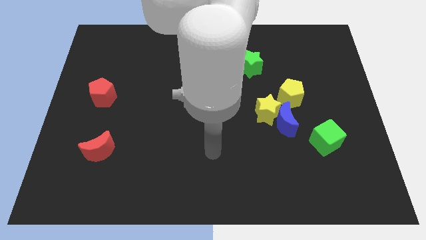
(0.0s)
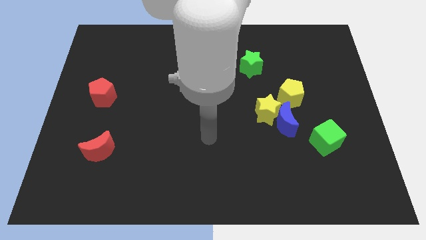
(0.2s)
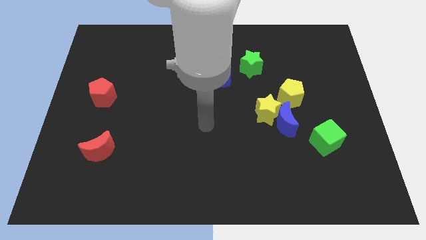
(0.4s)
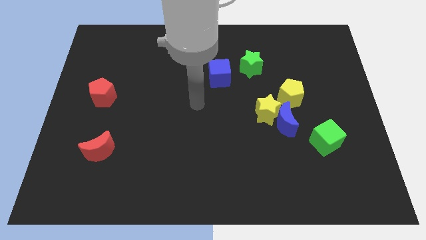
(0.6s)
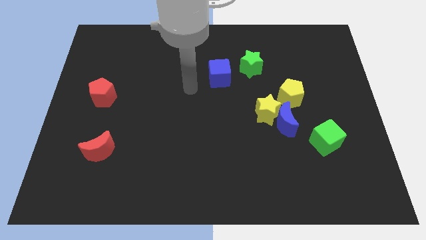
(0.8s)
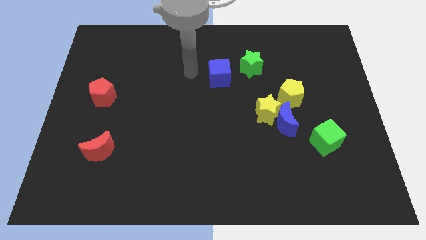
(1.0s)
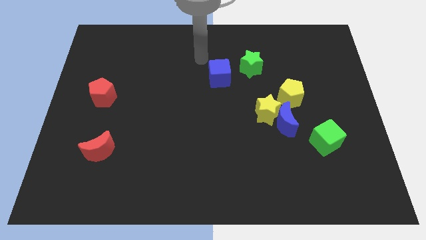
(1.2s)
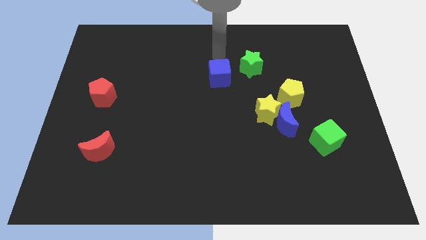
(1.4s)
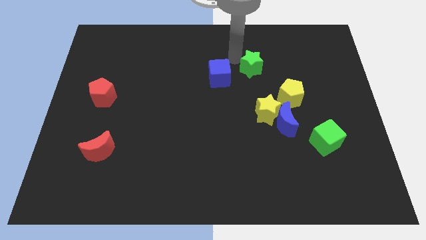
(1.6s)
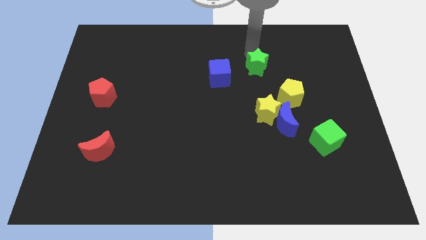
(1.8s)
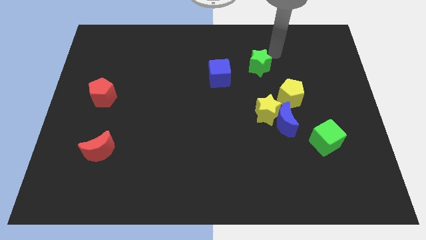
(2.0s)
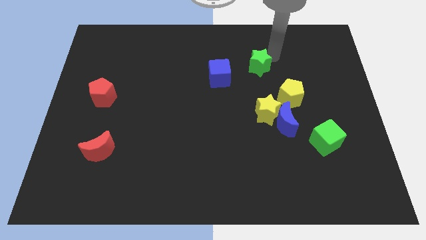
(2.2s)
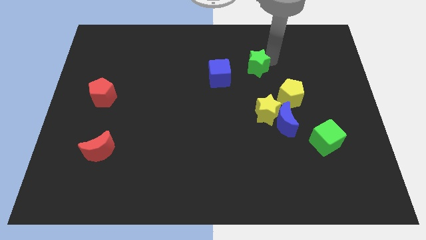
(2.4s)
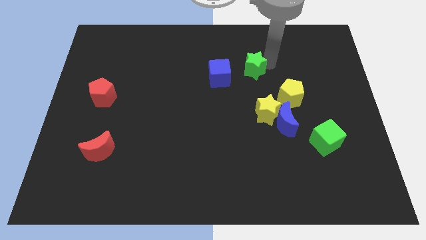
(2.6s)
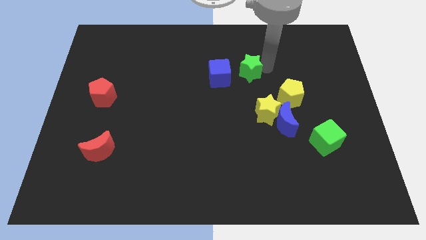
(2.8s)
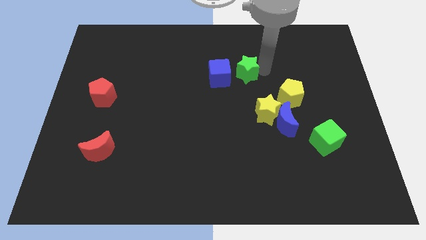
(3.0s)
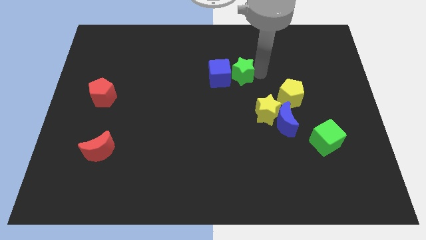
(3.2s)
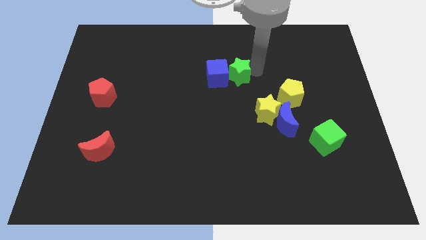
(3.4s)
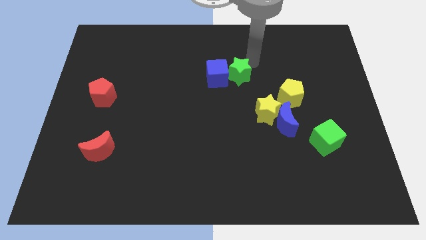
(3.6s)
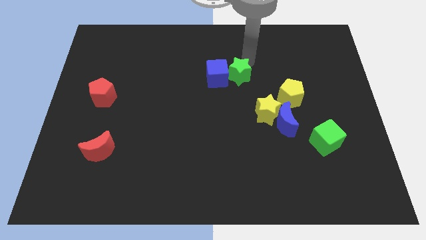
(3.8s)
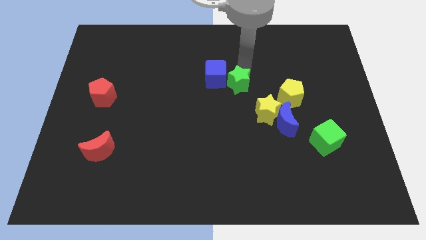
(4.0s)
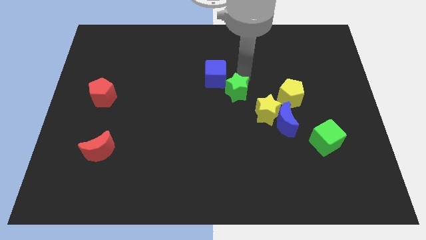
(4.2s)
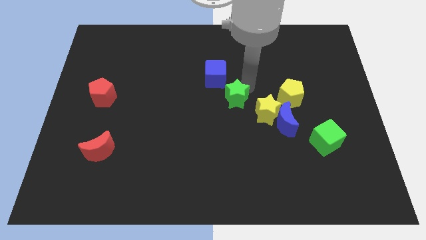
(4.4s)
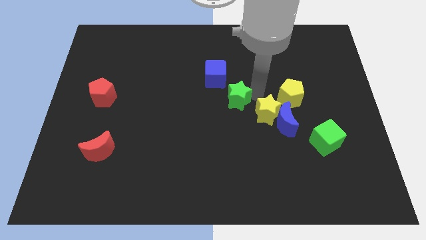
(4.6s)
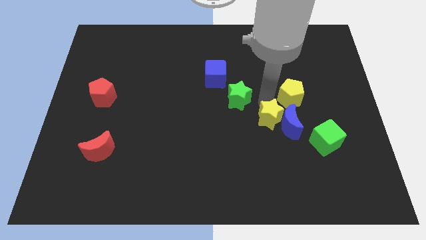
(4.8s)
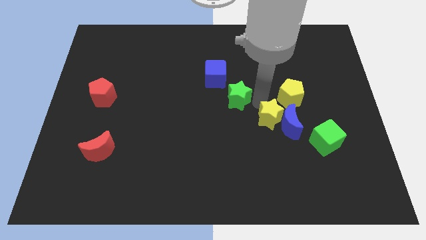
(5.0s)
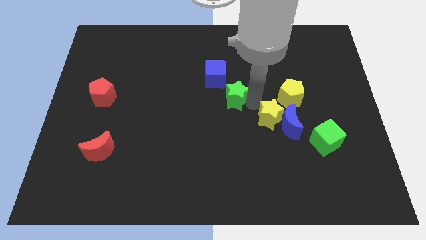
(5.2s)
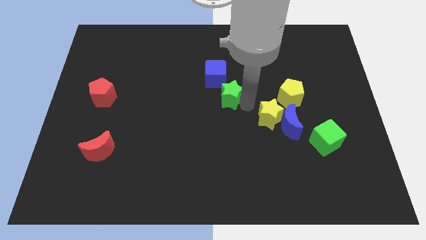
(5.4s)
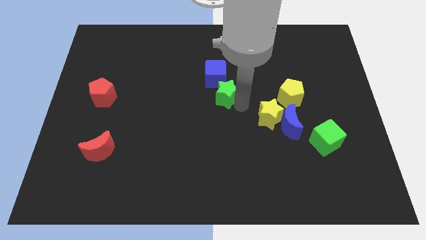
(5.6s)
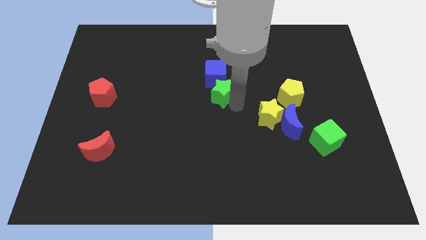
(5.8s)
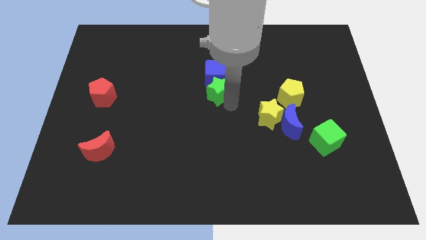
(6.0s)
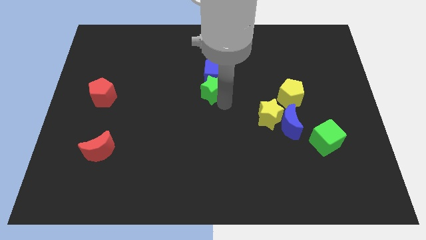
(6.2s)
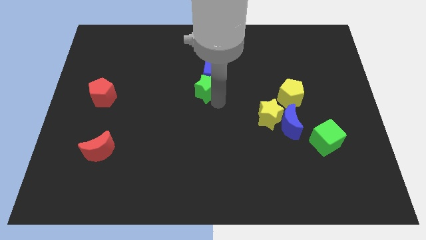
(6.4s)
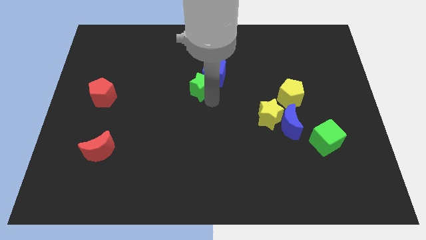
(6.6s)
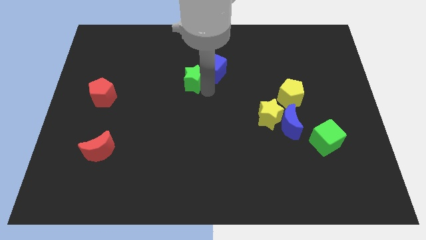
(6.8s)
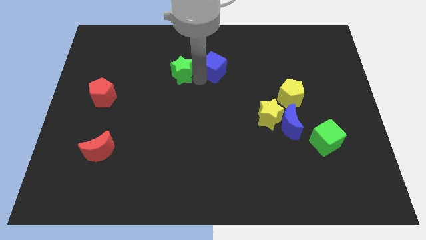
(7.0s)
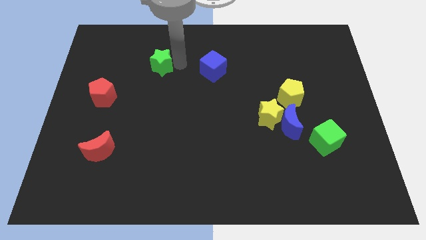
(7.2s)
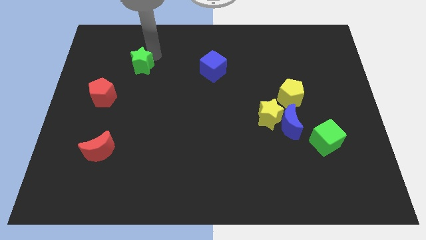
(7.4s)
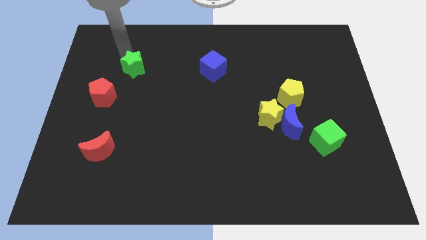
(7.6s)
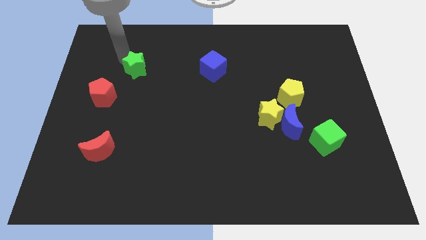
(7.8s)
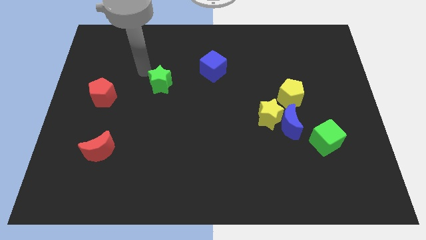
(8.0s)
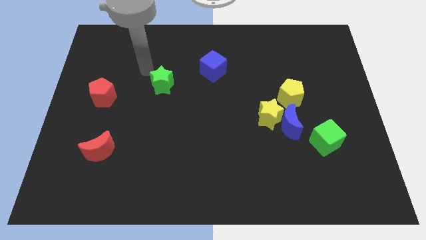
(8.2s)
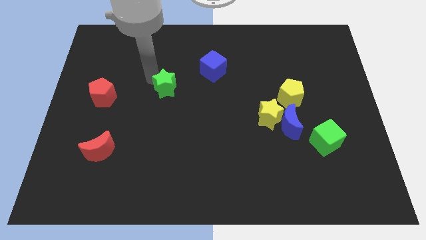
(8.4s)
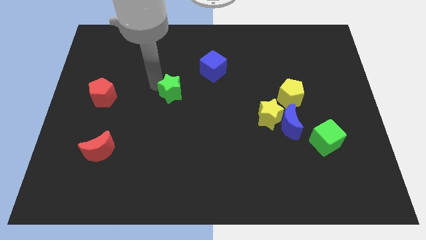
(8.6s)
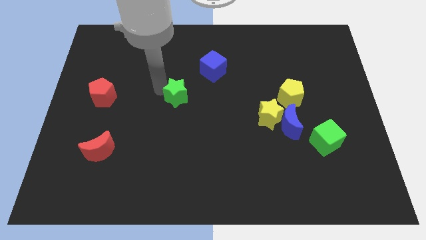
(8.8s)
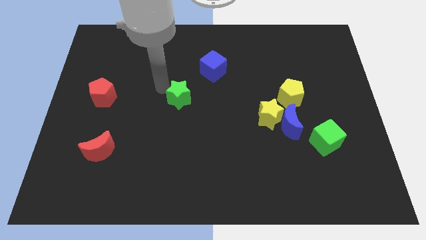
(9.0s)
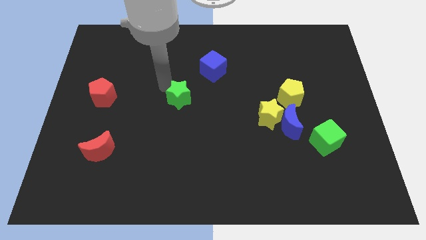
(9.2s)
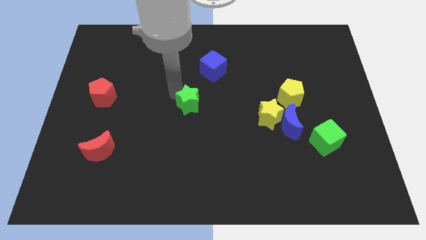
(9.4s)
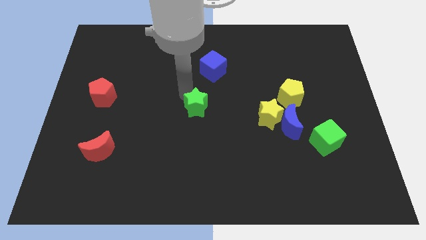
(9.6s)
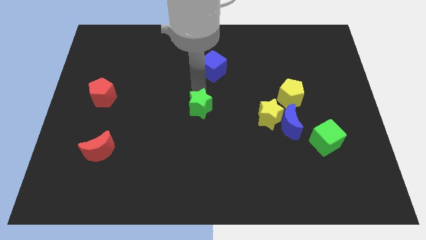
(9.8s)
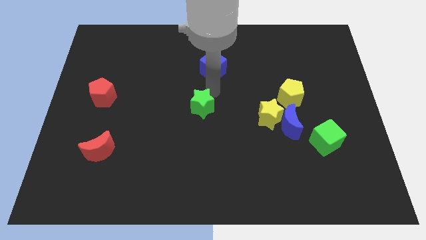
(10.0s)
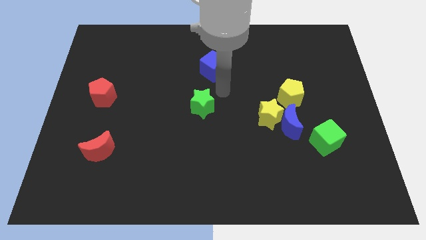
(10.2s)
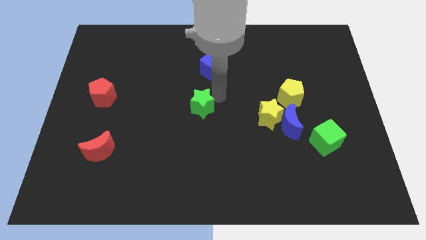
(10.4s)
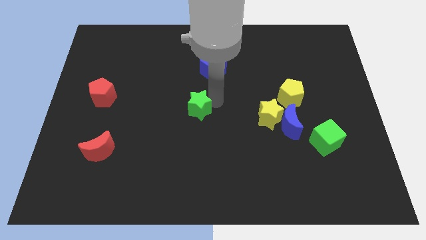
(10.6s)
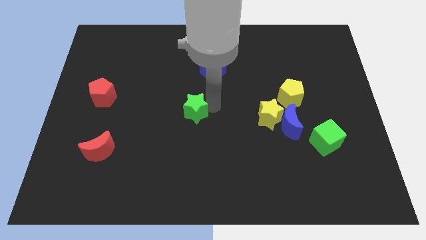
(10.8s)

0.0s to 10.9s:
push the green star down and left diagonally

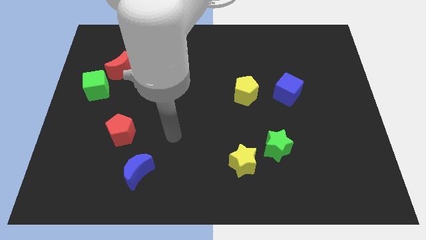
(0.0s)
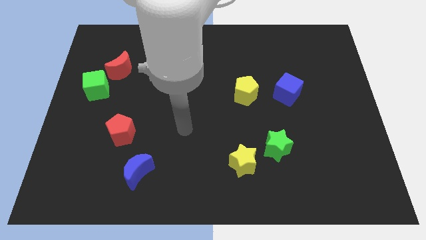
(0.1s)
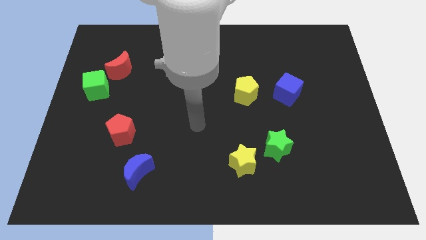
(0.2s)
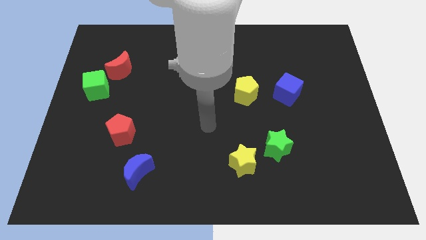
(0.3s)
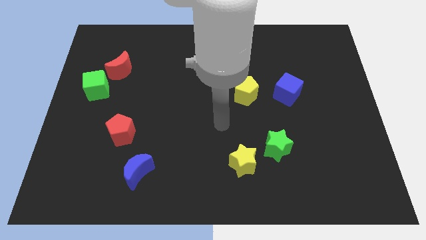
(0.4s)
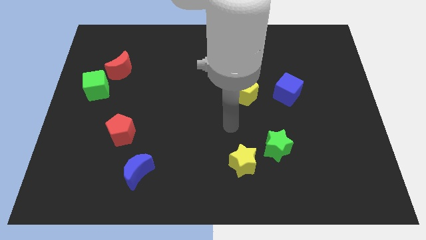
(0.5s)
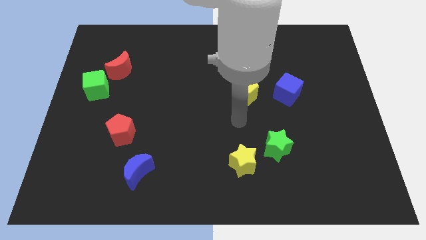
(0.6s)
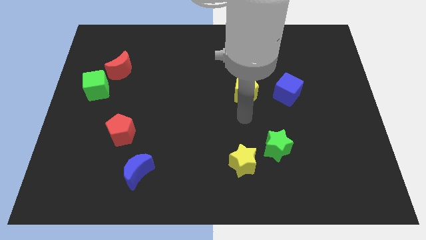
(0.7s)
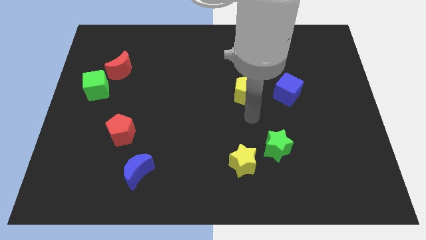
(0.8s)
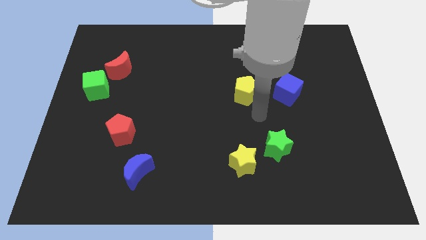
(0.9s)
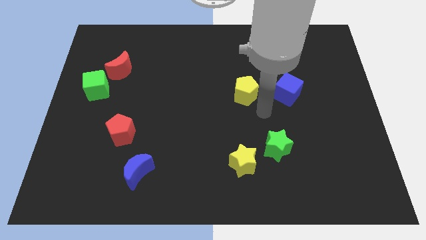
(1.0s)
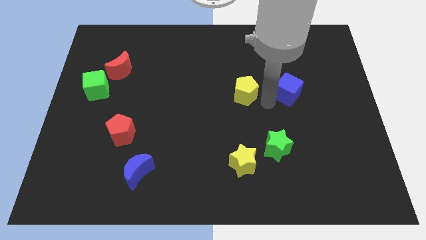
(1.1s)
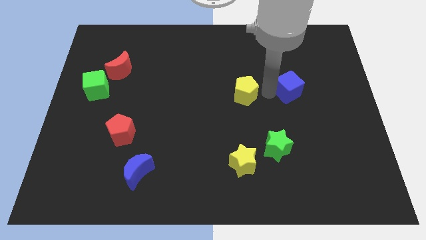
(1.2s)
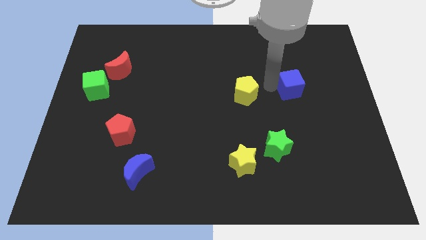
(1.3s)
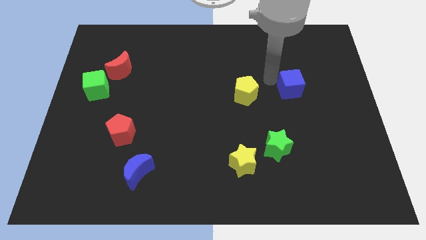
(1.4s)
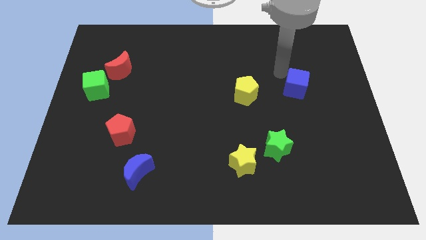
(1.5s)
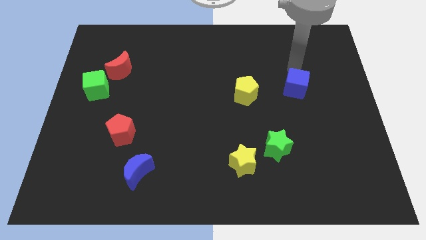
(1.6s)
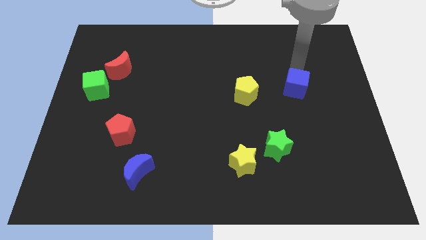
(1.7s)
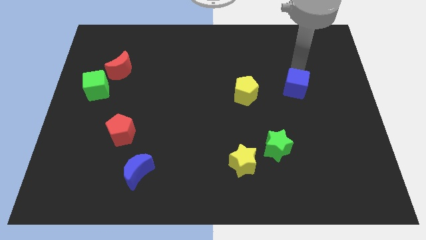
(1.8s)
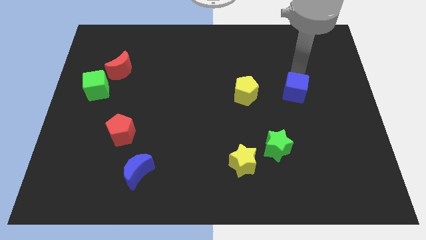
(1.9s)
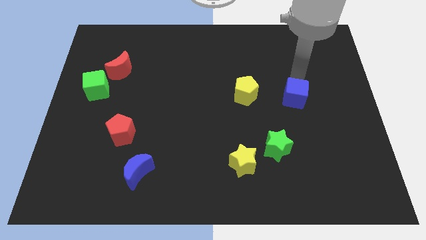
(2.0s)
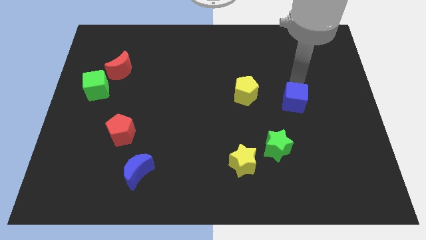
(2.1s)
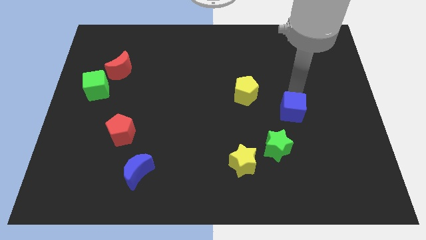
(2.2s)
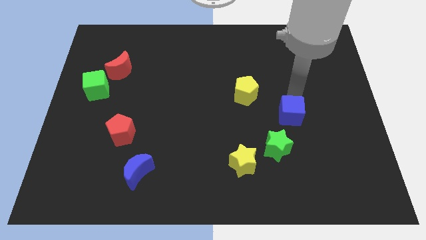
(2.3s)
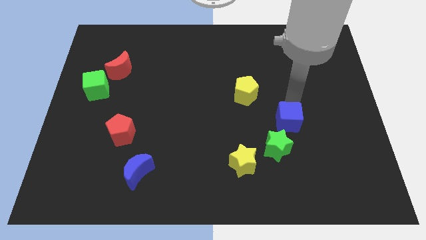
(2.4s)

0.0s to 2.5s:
move the blue cube downwards somewhat
